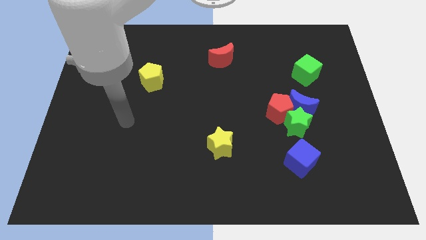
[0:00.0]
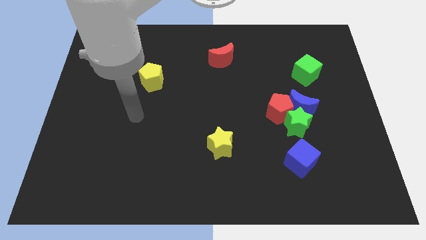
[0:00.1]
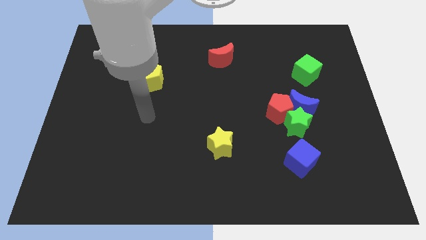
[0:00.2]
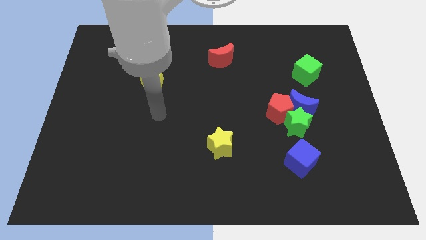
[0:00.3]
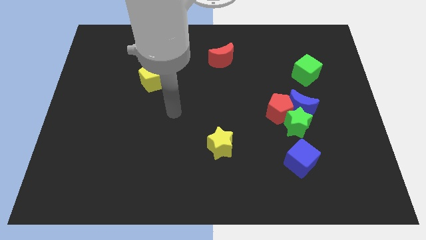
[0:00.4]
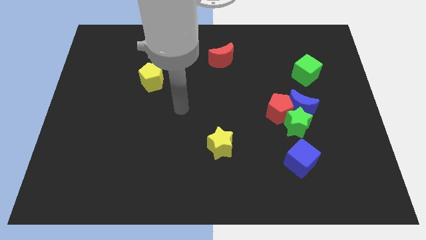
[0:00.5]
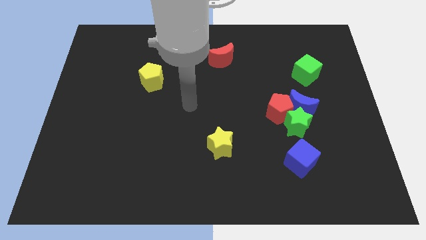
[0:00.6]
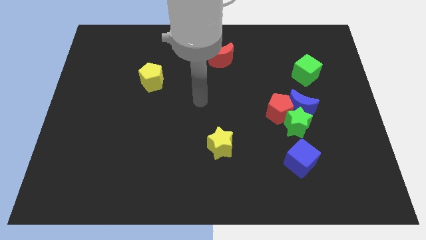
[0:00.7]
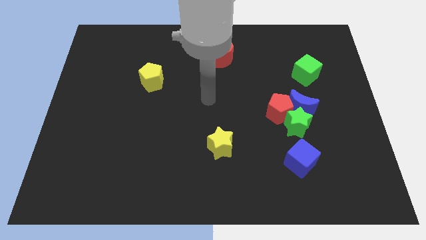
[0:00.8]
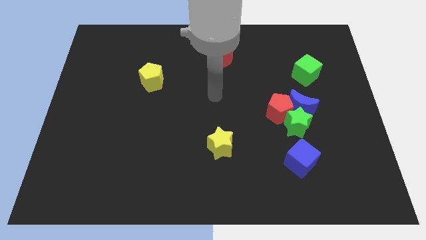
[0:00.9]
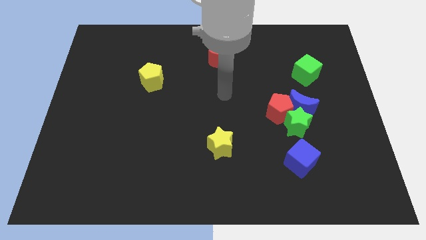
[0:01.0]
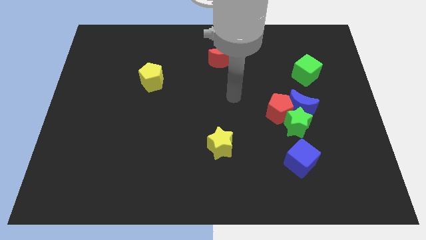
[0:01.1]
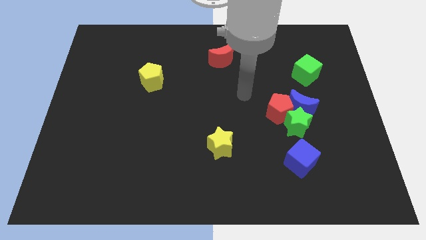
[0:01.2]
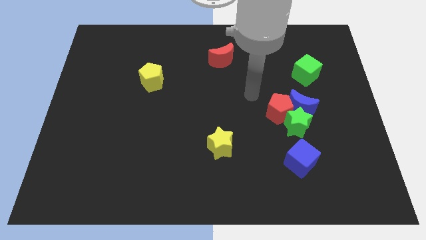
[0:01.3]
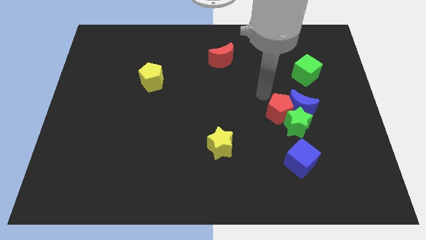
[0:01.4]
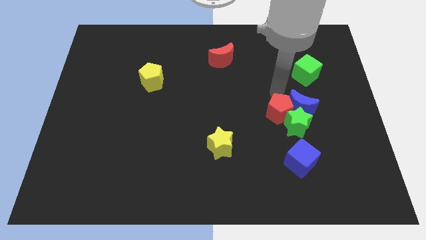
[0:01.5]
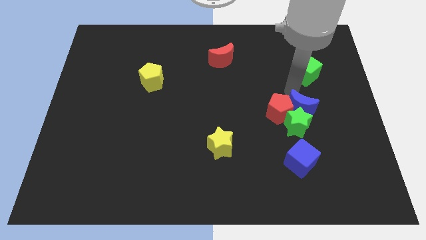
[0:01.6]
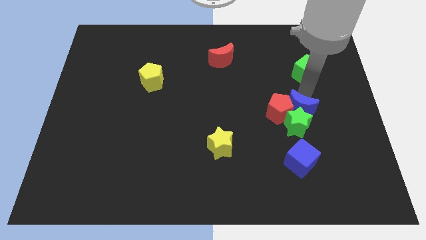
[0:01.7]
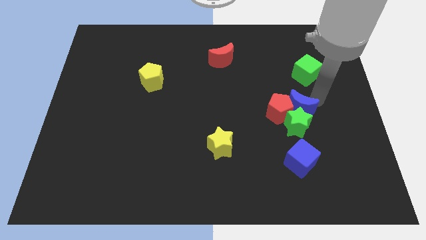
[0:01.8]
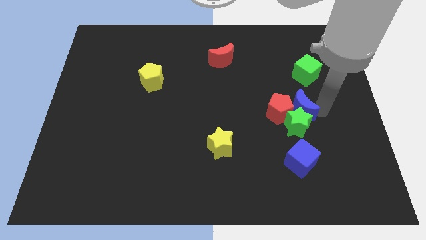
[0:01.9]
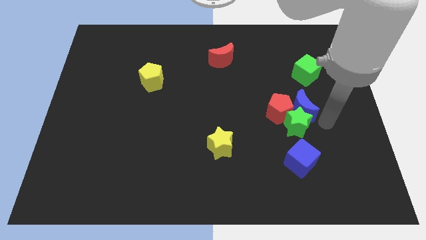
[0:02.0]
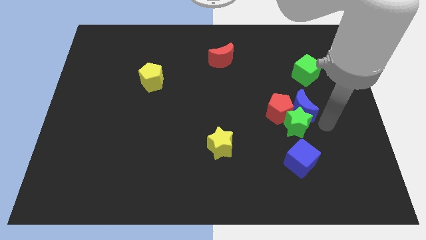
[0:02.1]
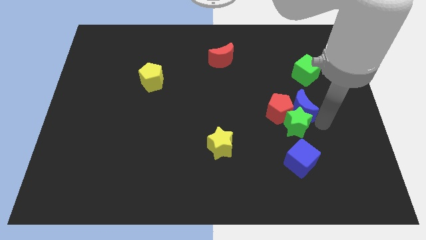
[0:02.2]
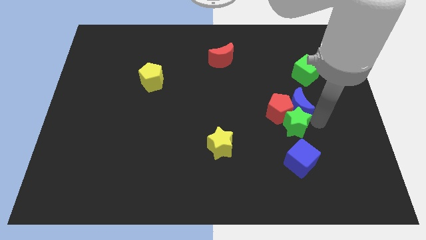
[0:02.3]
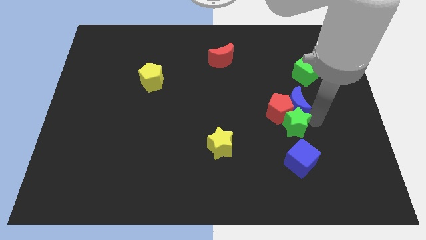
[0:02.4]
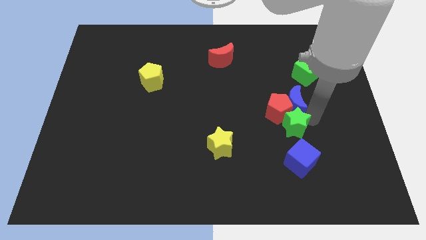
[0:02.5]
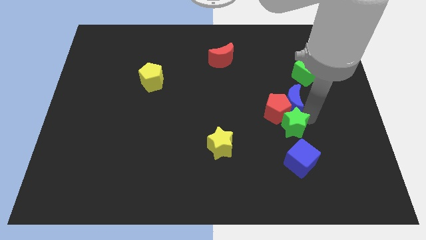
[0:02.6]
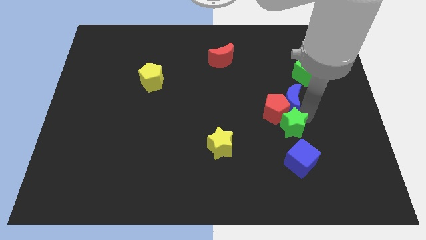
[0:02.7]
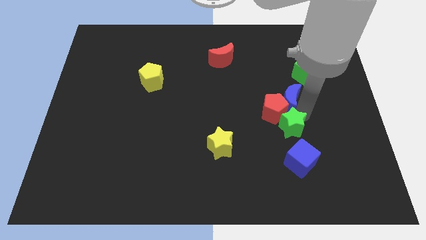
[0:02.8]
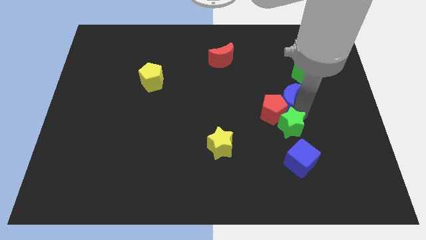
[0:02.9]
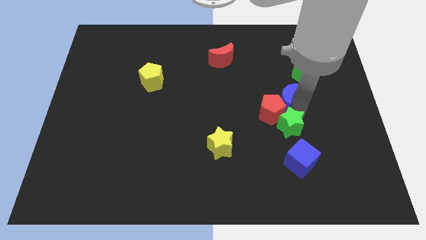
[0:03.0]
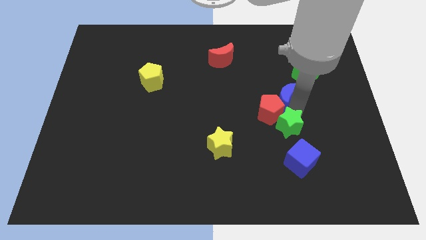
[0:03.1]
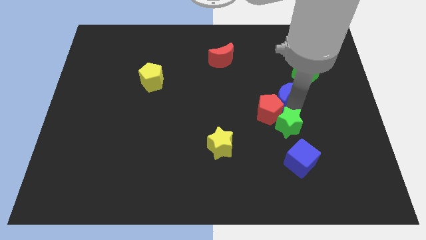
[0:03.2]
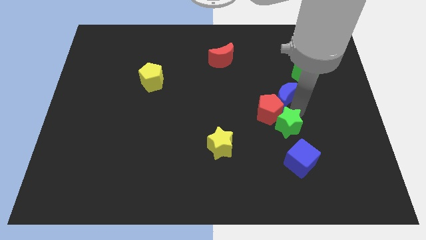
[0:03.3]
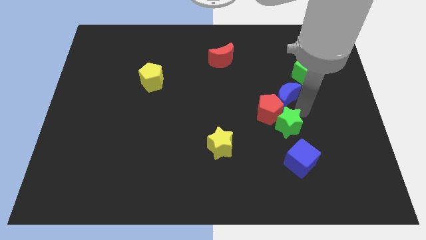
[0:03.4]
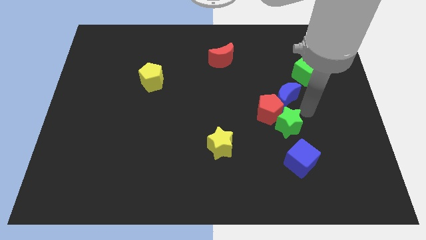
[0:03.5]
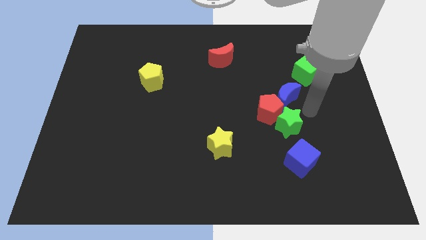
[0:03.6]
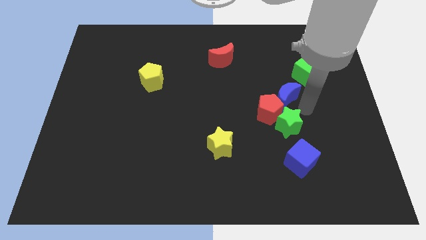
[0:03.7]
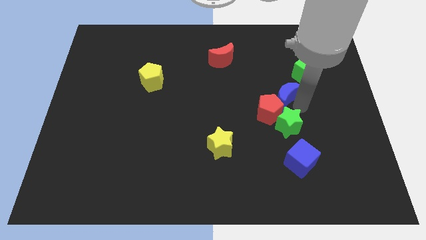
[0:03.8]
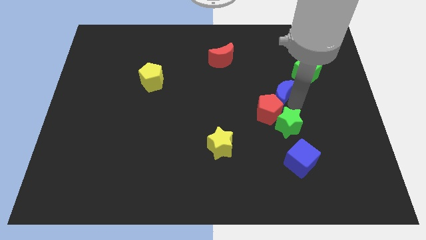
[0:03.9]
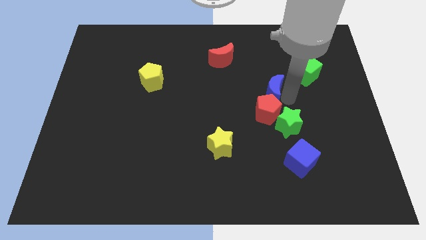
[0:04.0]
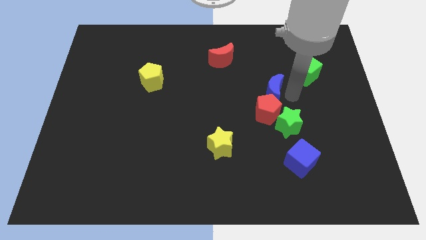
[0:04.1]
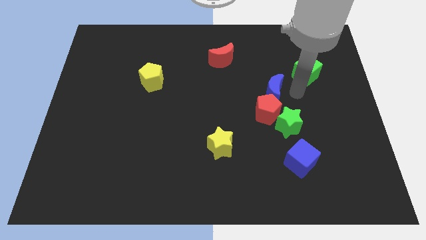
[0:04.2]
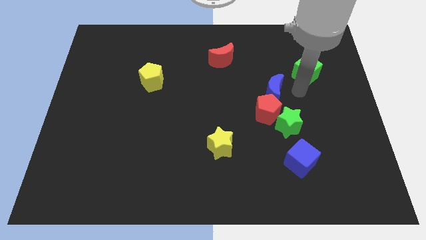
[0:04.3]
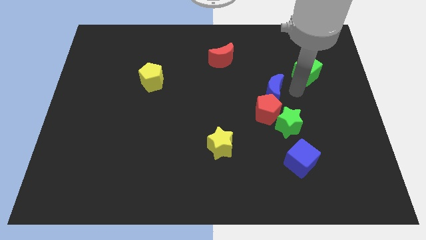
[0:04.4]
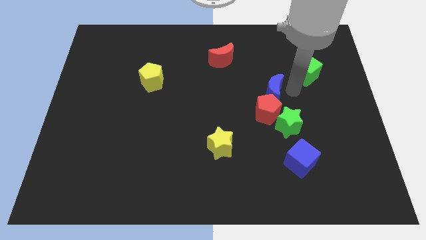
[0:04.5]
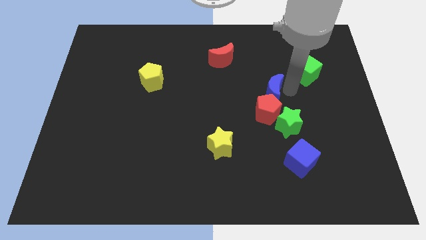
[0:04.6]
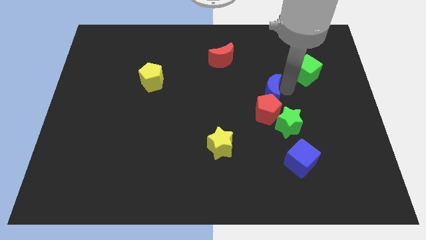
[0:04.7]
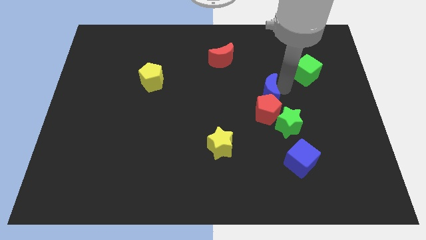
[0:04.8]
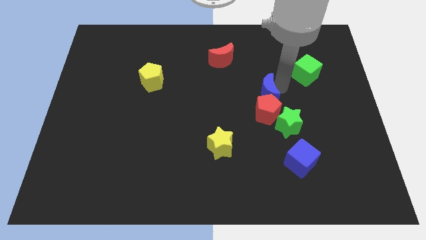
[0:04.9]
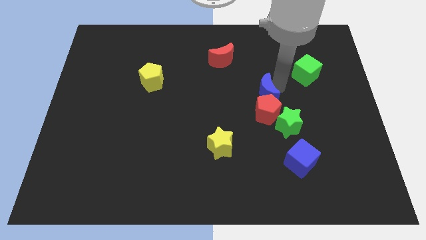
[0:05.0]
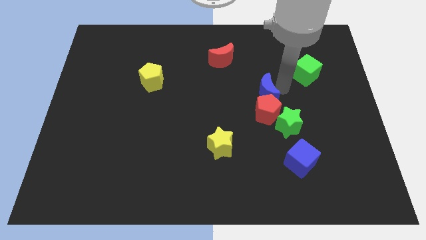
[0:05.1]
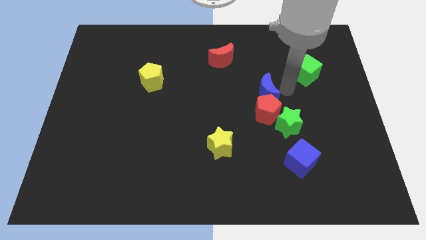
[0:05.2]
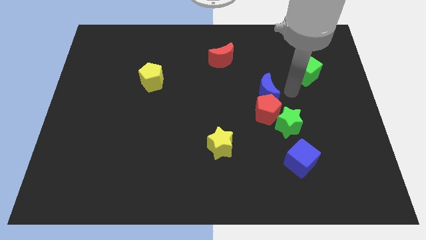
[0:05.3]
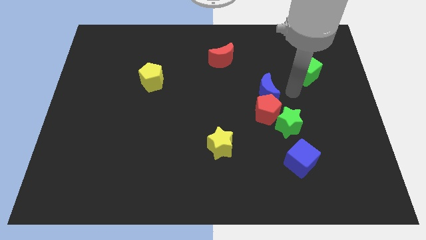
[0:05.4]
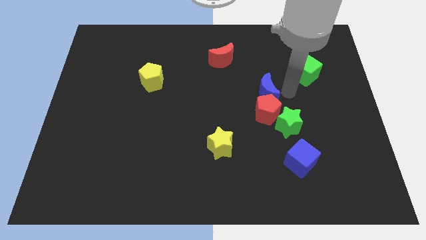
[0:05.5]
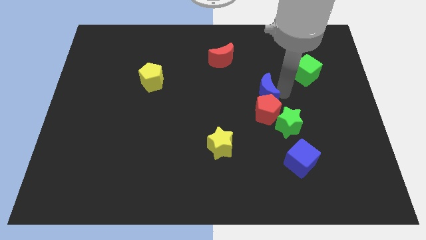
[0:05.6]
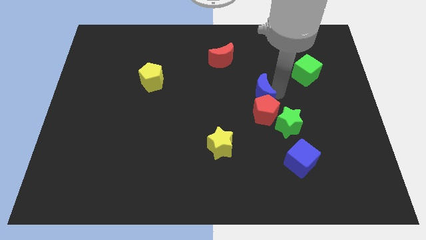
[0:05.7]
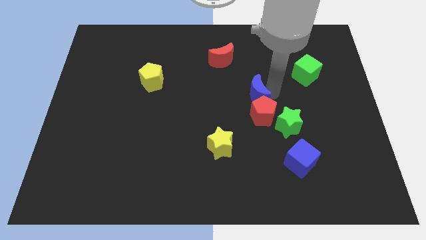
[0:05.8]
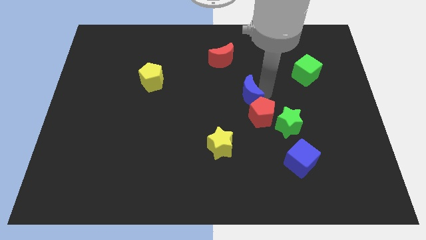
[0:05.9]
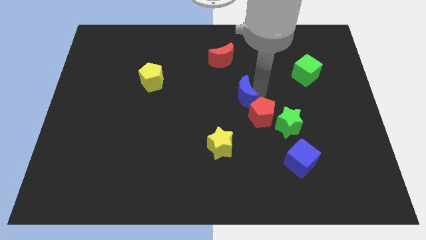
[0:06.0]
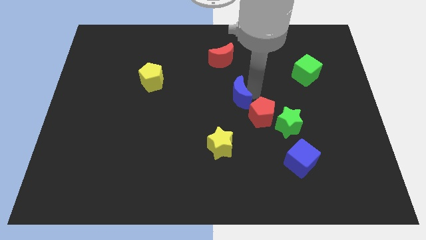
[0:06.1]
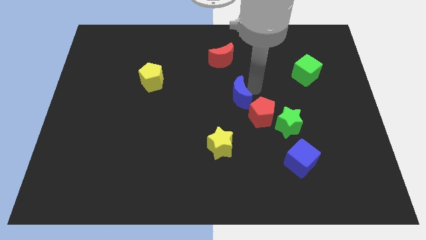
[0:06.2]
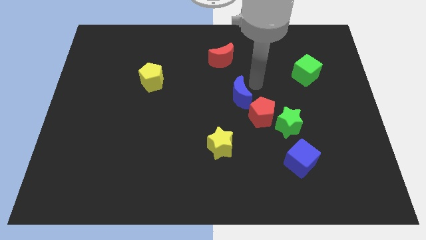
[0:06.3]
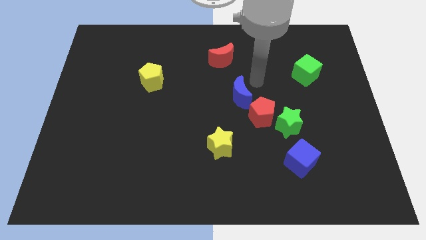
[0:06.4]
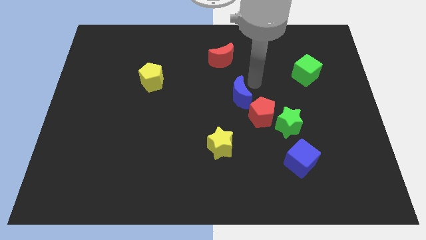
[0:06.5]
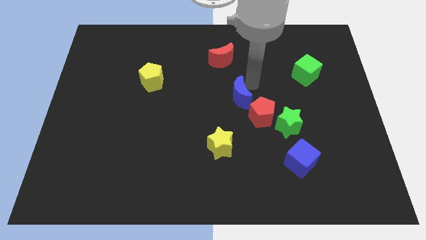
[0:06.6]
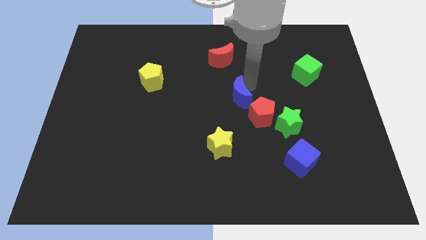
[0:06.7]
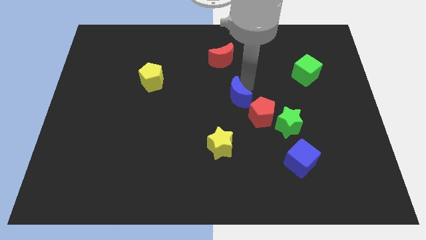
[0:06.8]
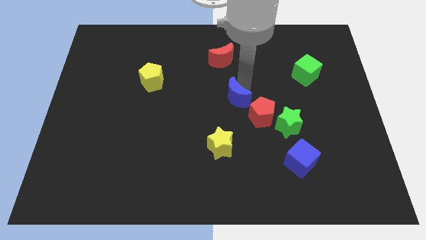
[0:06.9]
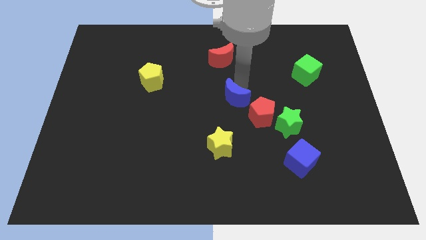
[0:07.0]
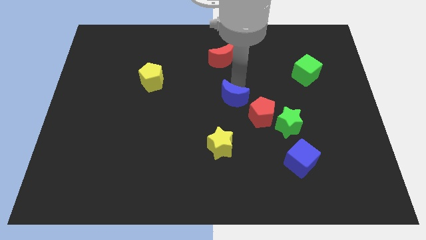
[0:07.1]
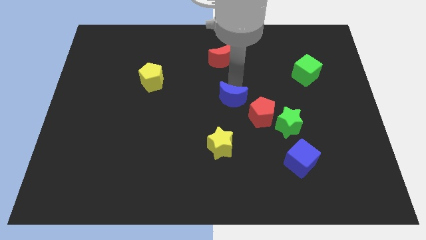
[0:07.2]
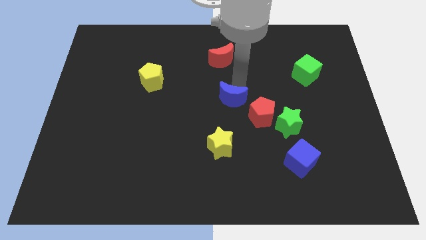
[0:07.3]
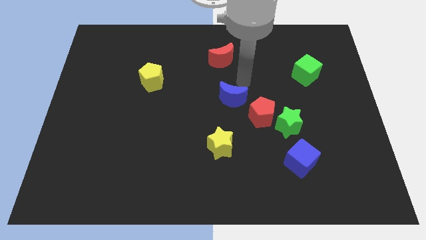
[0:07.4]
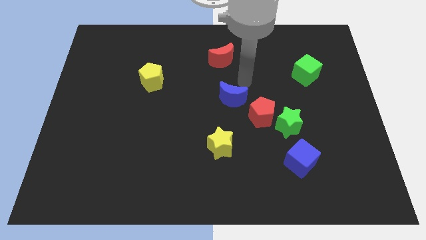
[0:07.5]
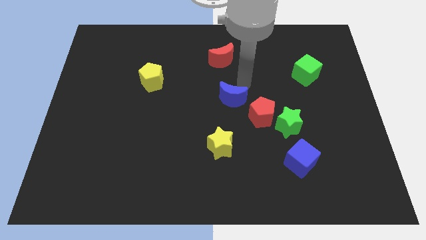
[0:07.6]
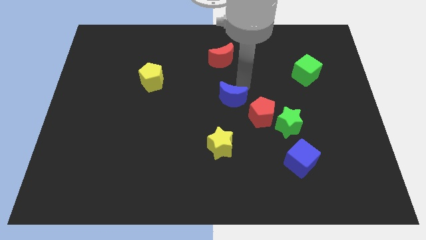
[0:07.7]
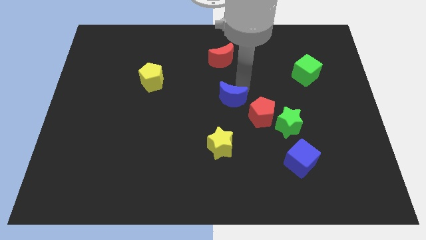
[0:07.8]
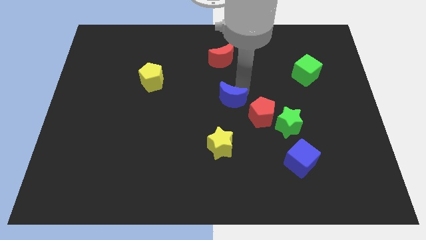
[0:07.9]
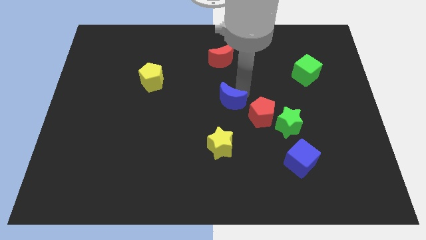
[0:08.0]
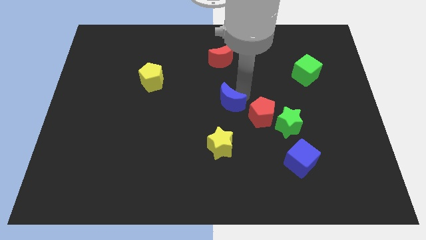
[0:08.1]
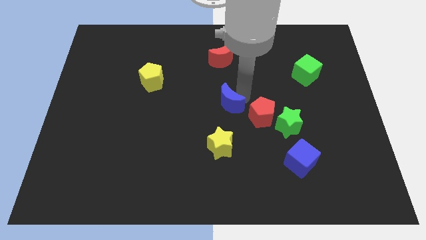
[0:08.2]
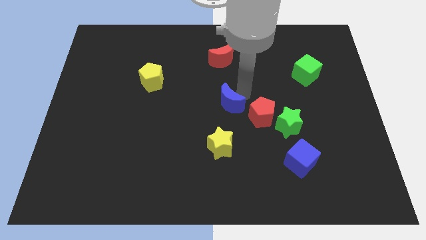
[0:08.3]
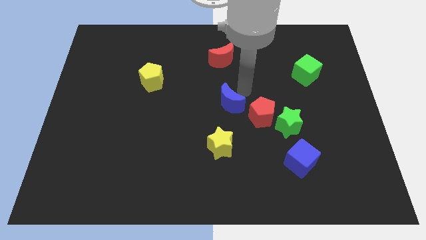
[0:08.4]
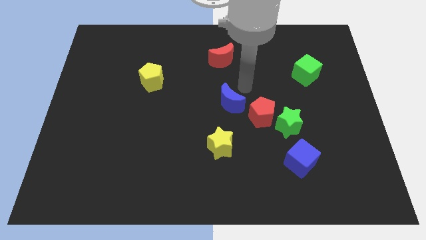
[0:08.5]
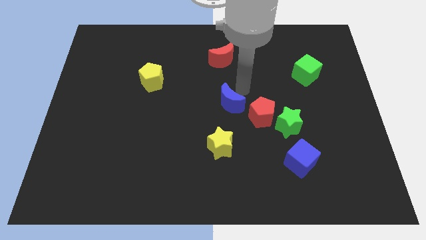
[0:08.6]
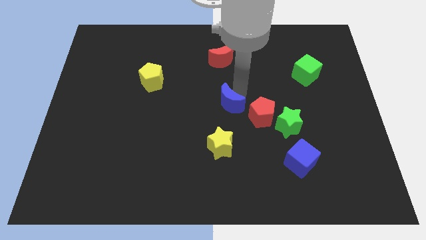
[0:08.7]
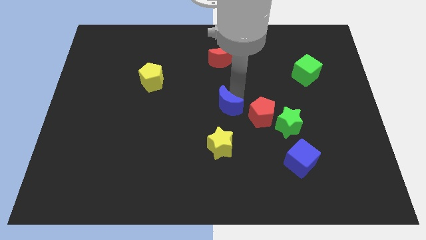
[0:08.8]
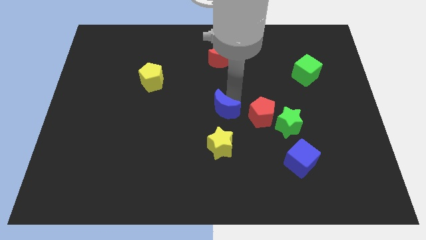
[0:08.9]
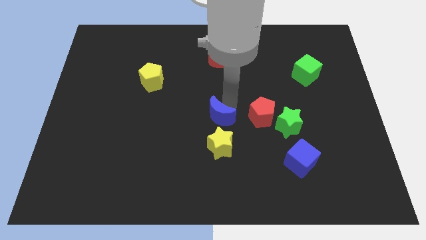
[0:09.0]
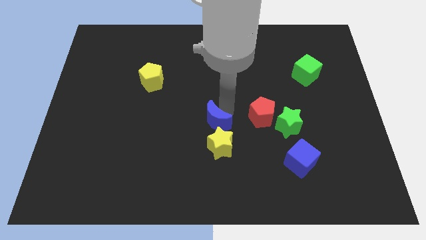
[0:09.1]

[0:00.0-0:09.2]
push the blue moon diagonally up and to the left of the yellow star
